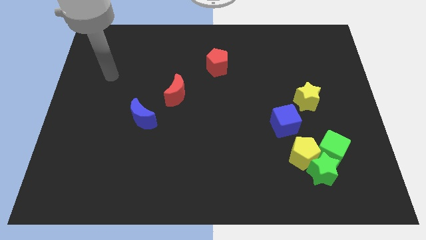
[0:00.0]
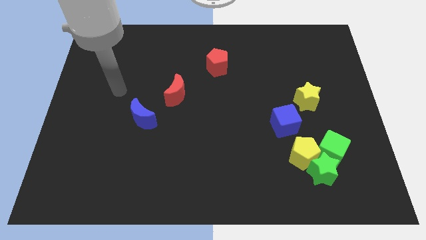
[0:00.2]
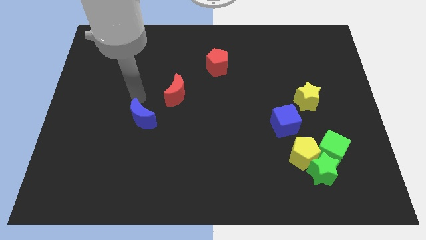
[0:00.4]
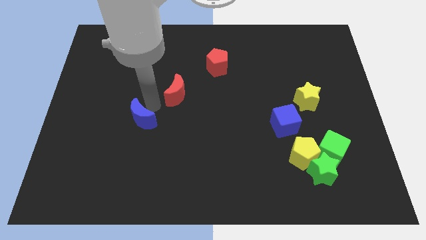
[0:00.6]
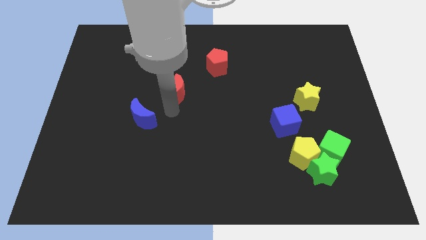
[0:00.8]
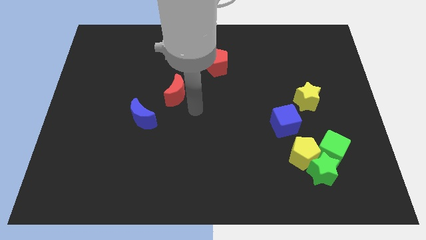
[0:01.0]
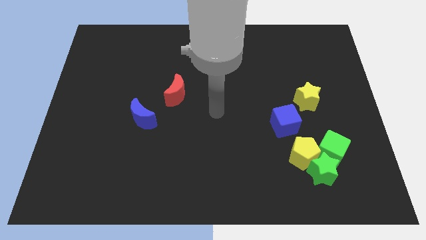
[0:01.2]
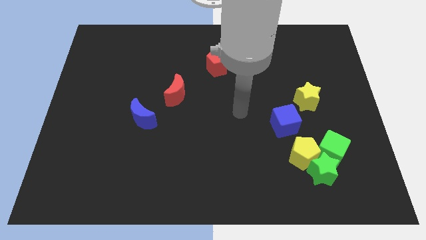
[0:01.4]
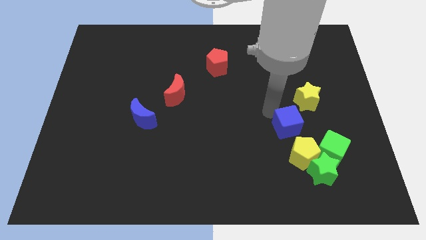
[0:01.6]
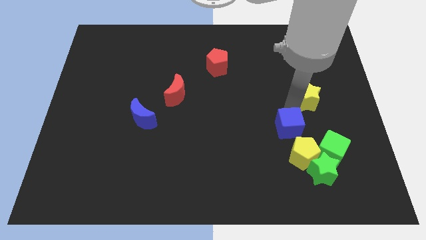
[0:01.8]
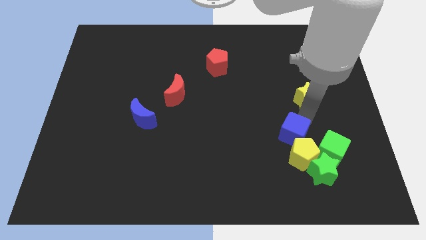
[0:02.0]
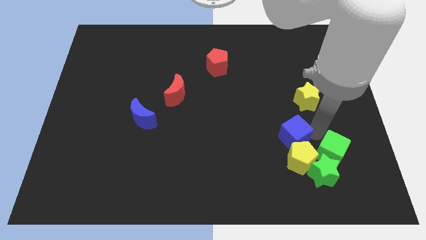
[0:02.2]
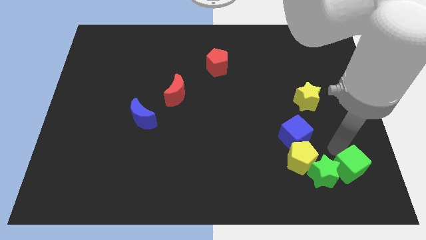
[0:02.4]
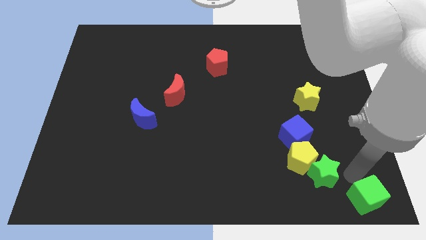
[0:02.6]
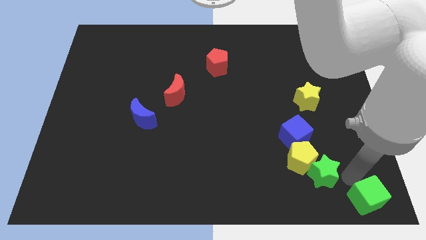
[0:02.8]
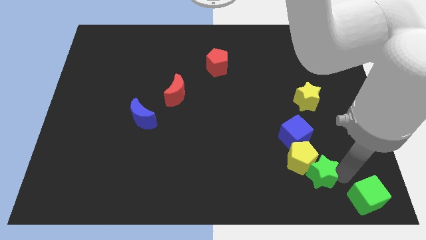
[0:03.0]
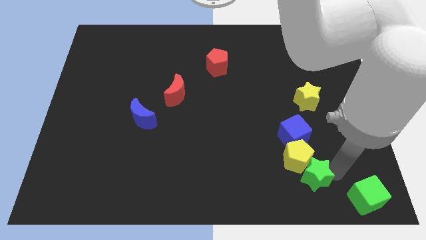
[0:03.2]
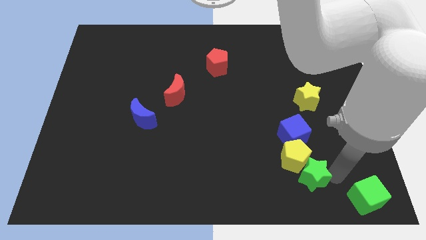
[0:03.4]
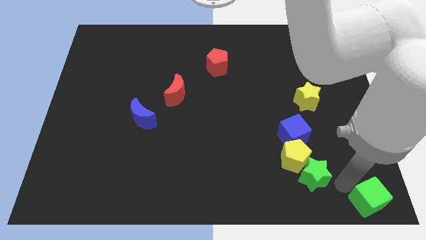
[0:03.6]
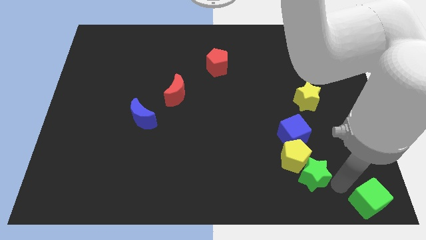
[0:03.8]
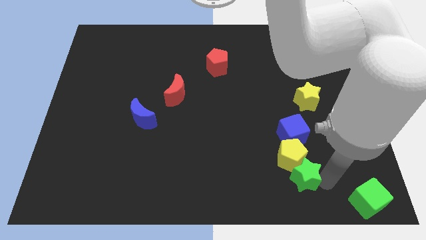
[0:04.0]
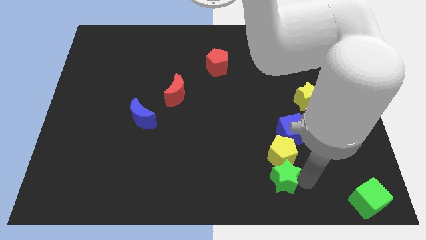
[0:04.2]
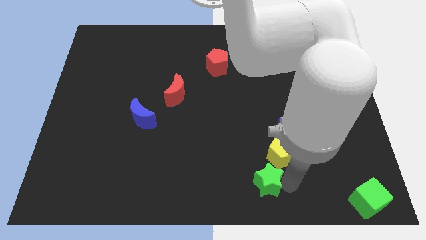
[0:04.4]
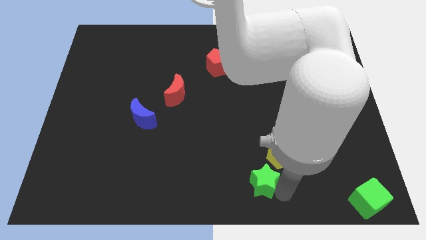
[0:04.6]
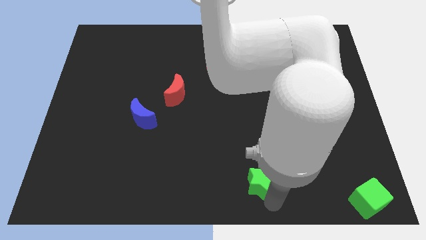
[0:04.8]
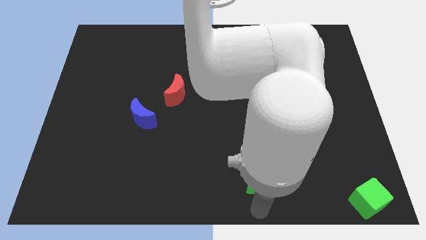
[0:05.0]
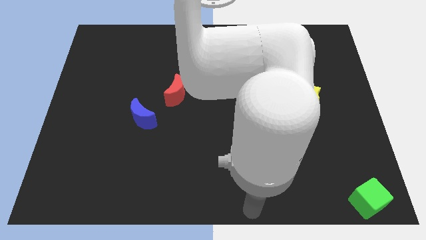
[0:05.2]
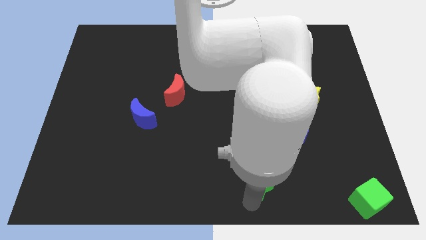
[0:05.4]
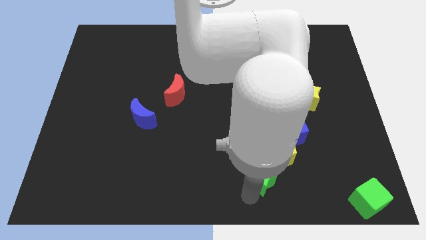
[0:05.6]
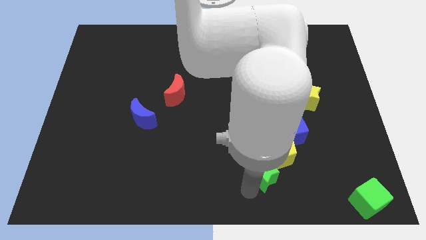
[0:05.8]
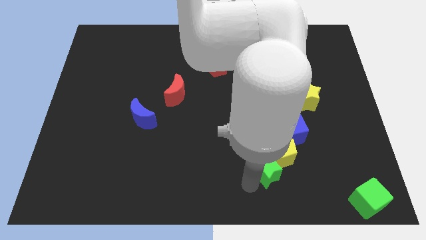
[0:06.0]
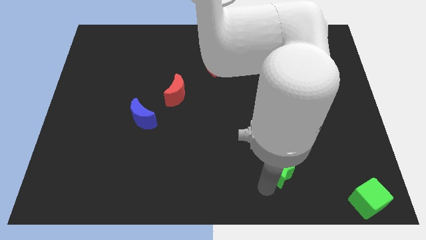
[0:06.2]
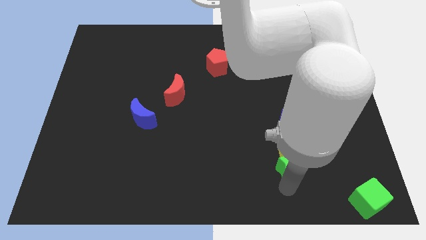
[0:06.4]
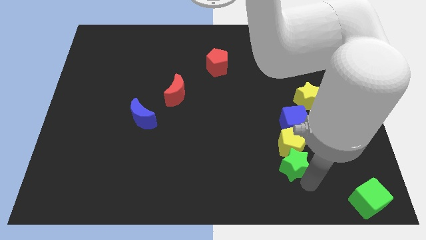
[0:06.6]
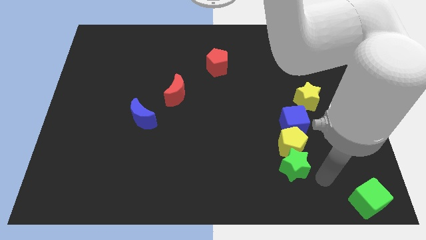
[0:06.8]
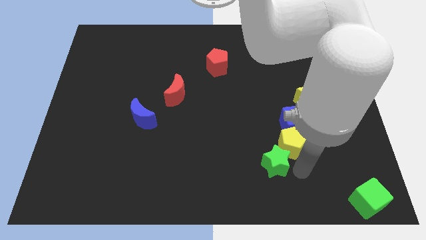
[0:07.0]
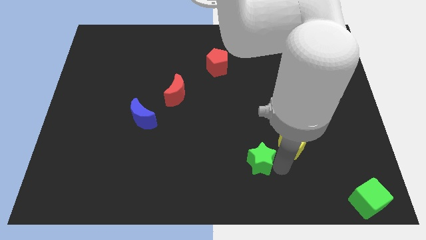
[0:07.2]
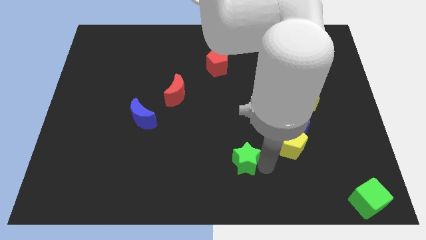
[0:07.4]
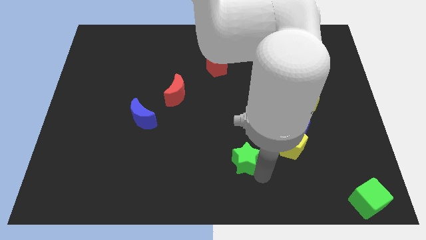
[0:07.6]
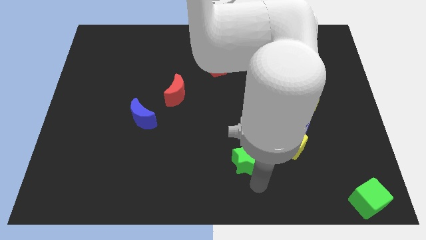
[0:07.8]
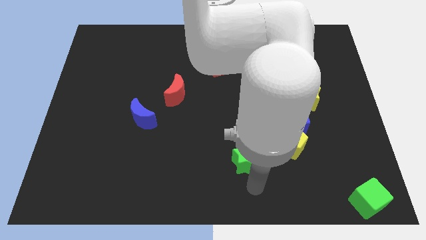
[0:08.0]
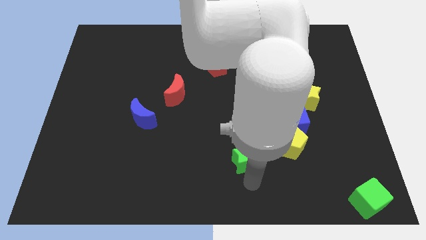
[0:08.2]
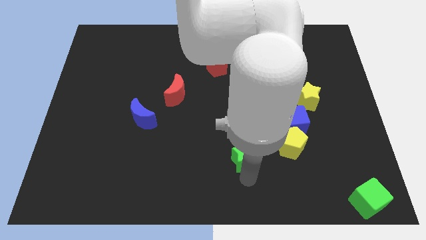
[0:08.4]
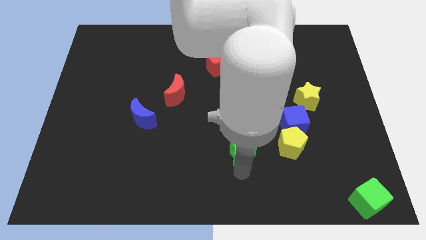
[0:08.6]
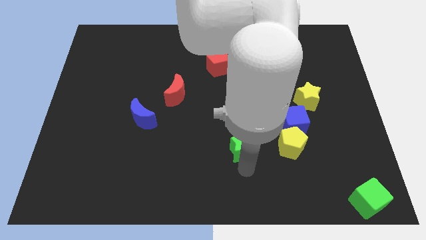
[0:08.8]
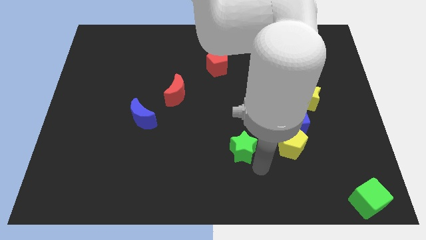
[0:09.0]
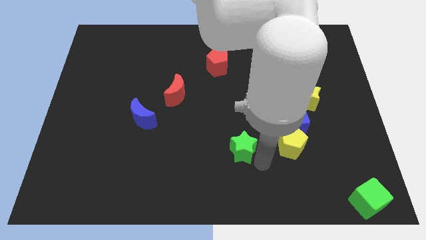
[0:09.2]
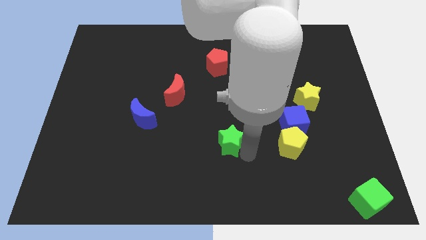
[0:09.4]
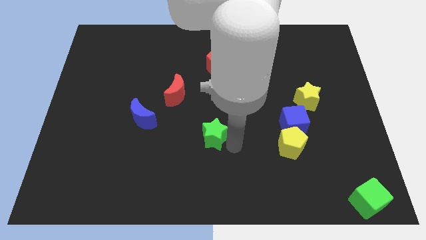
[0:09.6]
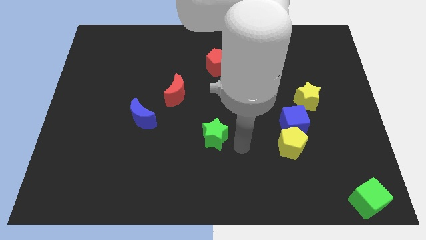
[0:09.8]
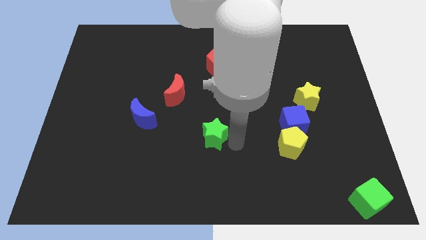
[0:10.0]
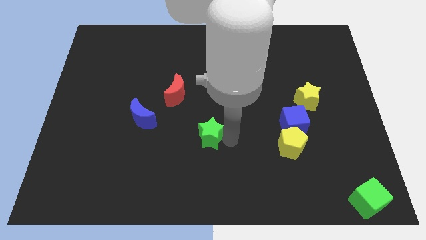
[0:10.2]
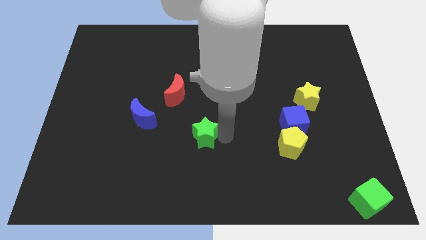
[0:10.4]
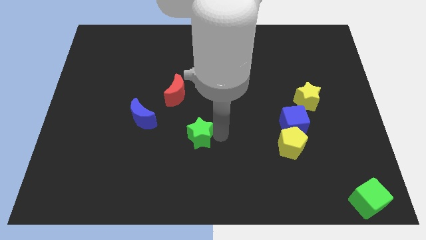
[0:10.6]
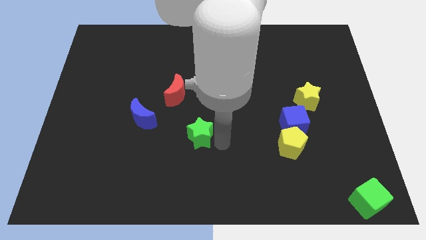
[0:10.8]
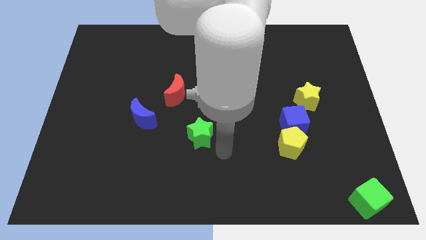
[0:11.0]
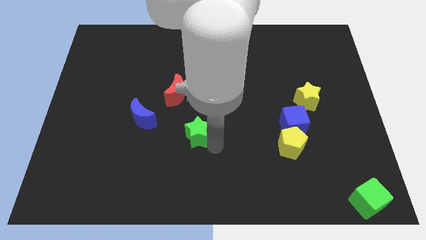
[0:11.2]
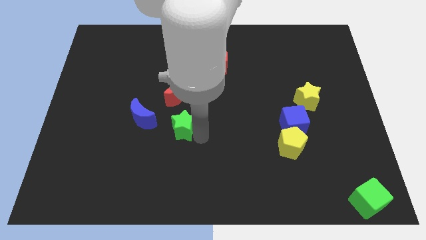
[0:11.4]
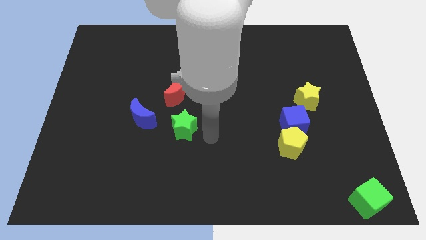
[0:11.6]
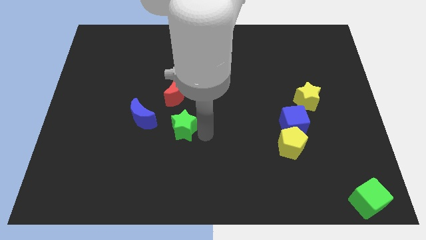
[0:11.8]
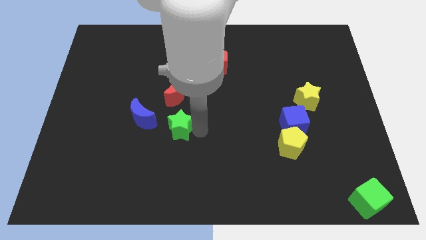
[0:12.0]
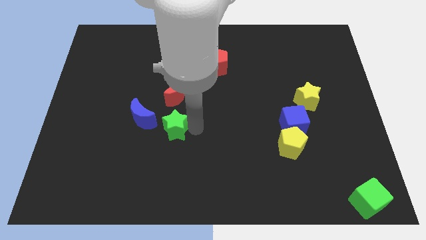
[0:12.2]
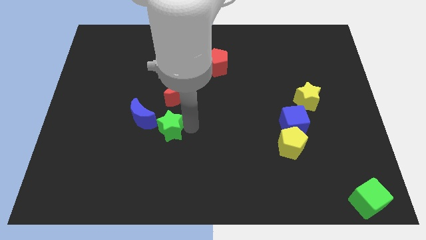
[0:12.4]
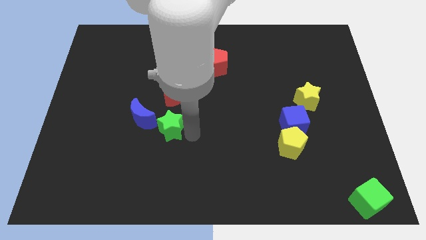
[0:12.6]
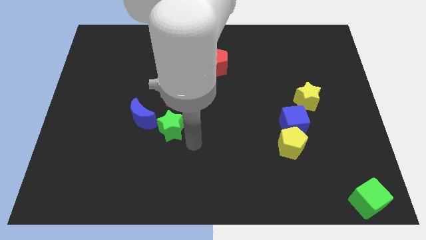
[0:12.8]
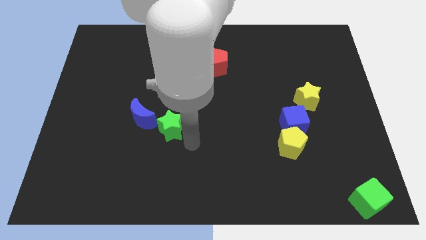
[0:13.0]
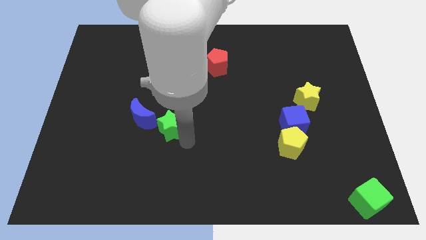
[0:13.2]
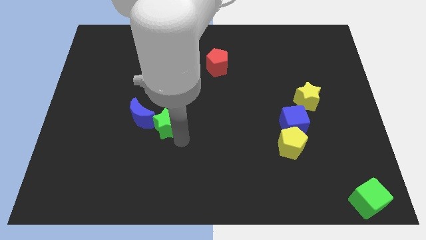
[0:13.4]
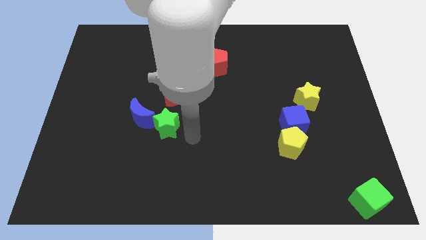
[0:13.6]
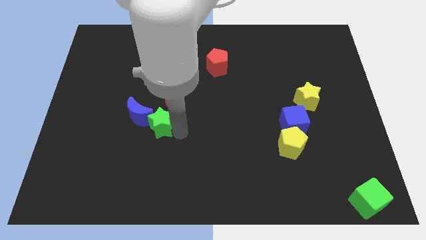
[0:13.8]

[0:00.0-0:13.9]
put the green star next to the blue moon

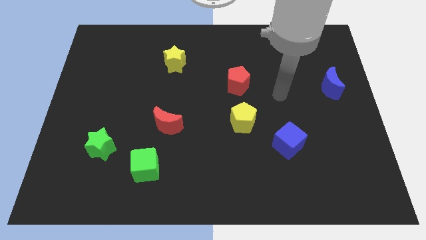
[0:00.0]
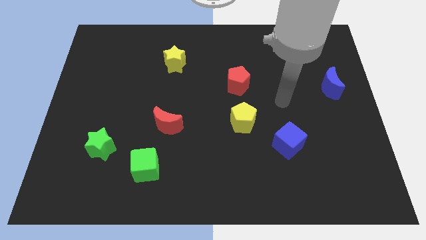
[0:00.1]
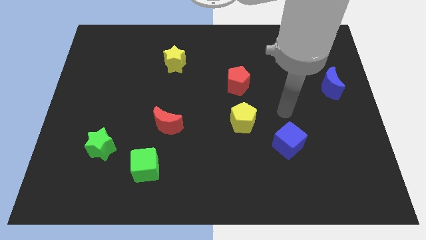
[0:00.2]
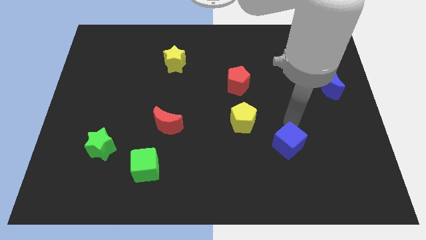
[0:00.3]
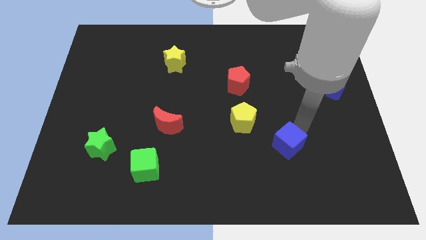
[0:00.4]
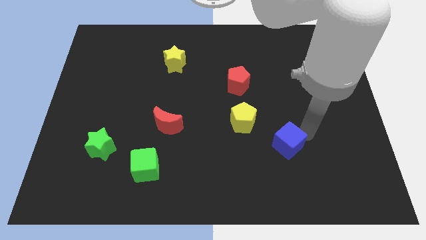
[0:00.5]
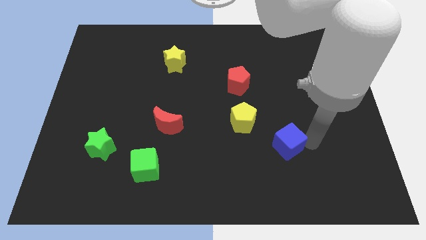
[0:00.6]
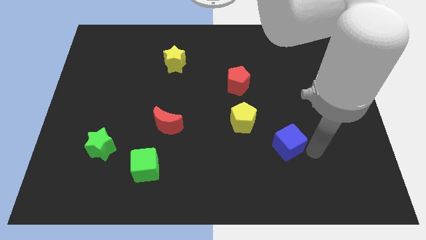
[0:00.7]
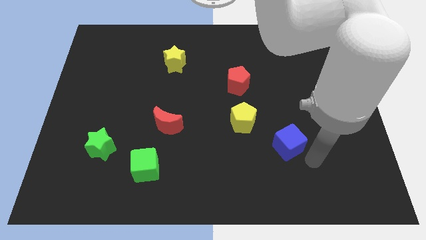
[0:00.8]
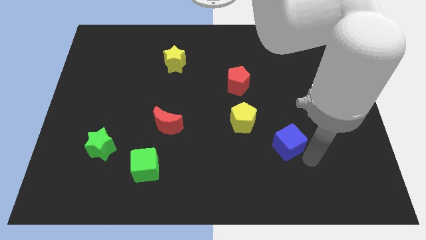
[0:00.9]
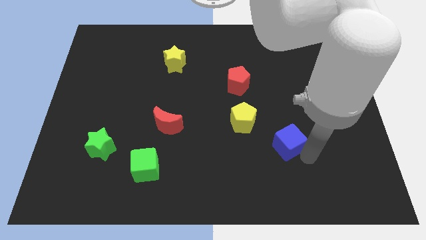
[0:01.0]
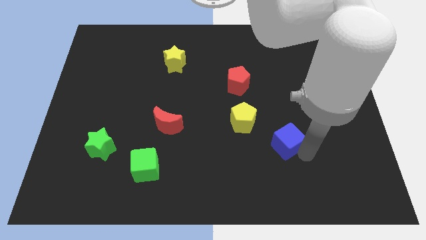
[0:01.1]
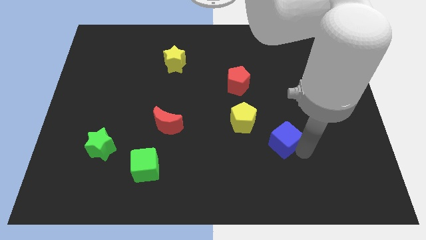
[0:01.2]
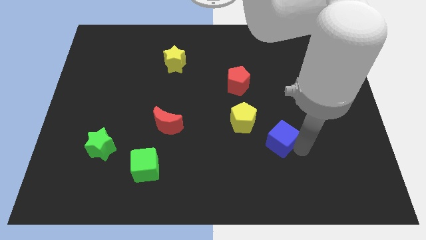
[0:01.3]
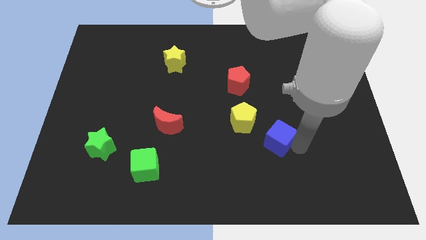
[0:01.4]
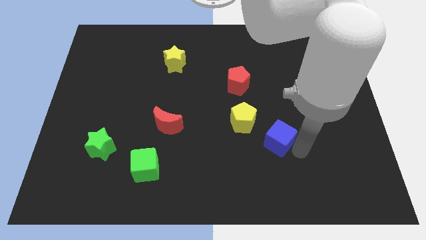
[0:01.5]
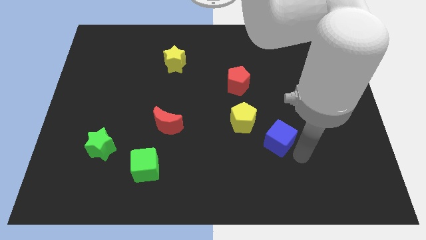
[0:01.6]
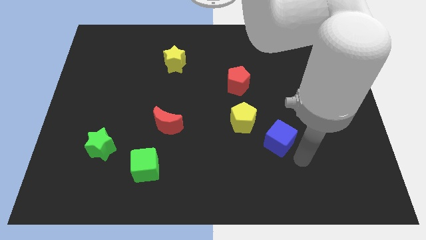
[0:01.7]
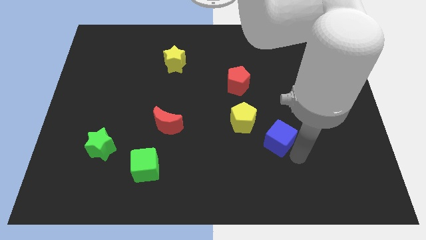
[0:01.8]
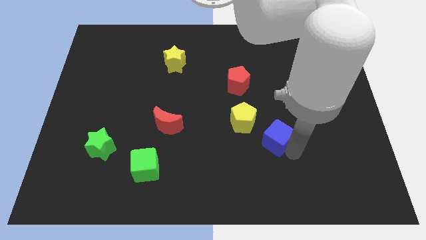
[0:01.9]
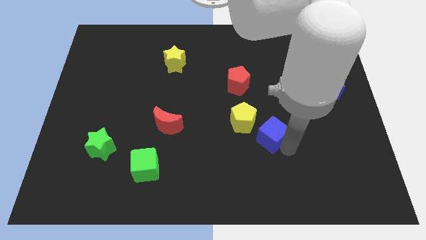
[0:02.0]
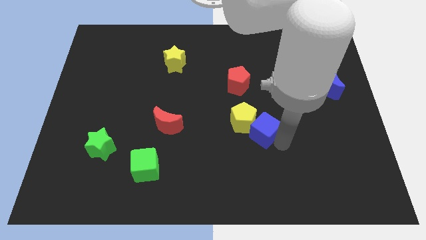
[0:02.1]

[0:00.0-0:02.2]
move the blue cube next to the yellow pentagon
